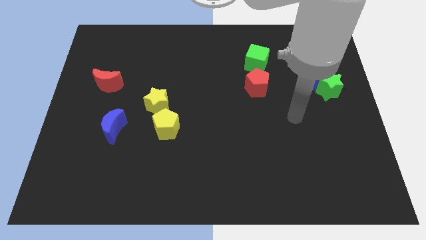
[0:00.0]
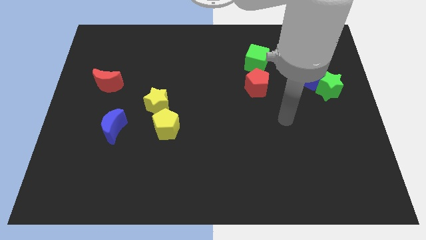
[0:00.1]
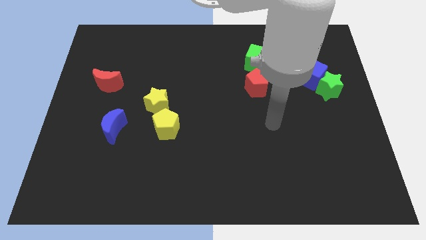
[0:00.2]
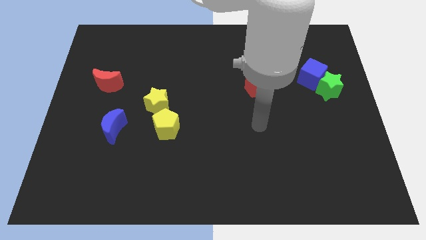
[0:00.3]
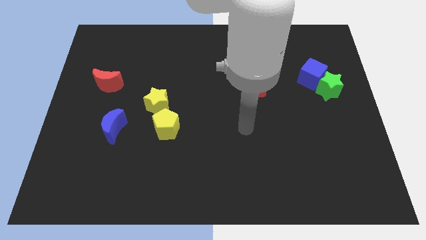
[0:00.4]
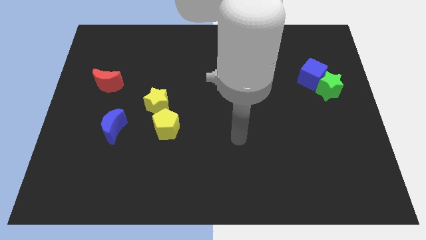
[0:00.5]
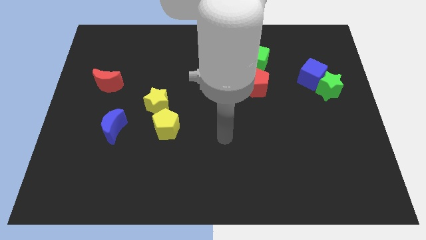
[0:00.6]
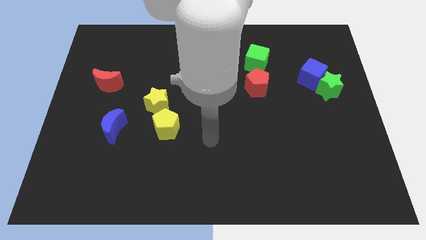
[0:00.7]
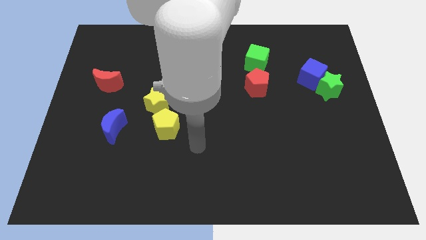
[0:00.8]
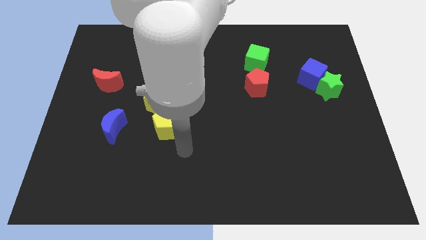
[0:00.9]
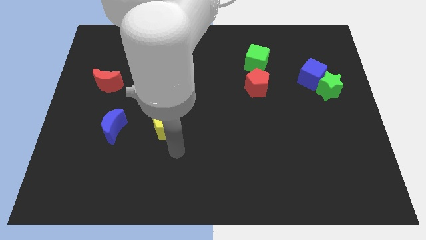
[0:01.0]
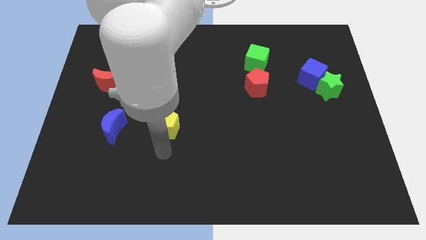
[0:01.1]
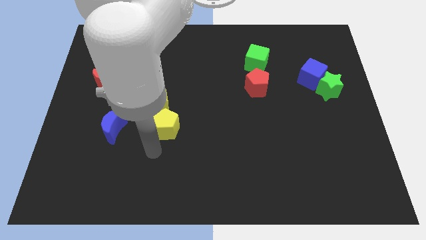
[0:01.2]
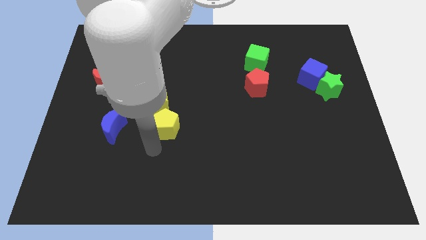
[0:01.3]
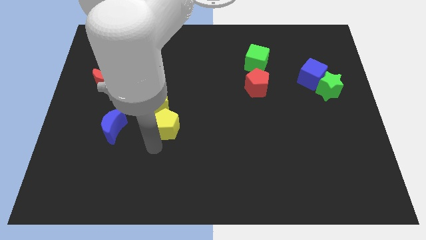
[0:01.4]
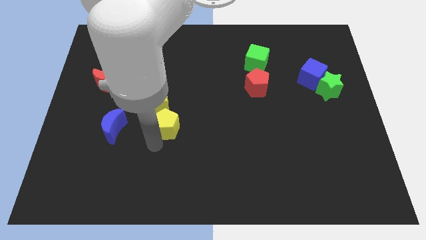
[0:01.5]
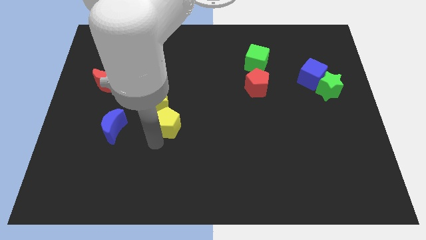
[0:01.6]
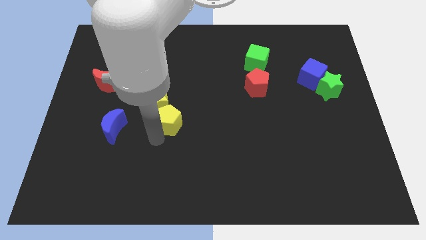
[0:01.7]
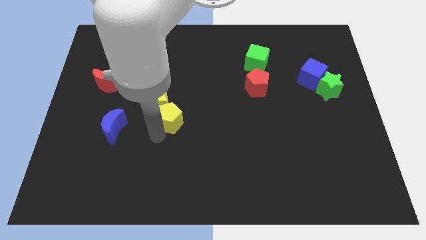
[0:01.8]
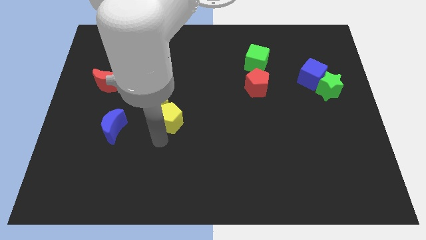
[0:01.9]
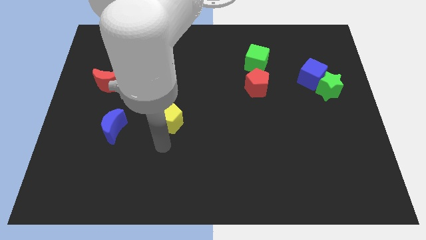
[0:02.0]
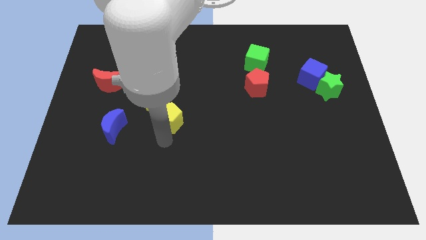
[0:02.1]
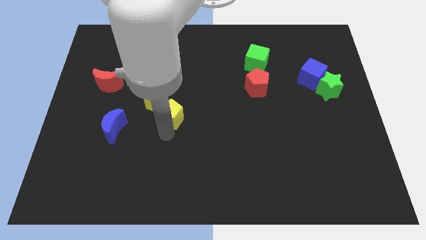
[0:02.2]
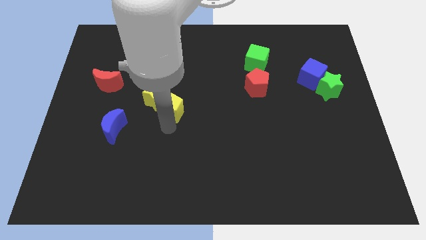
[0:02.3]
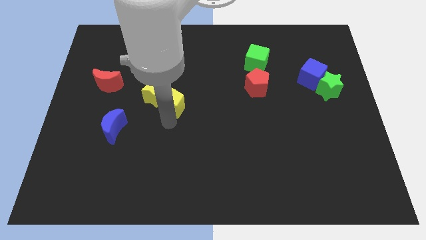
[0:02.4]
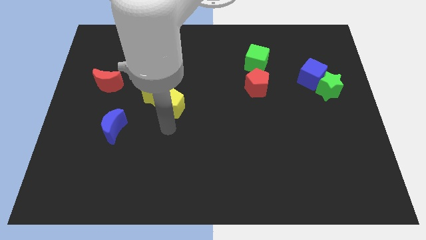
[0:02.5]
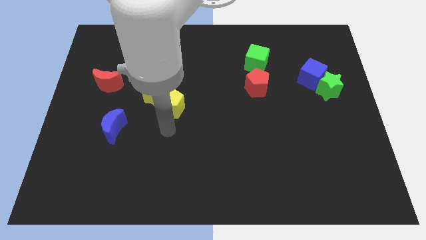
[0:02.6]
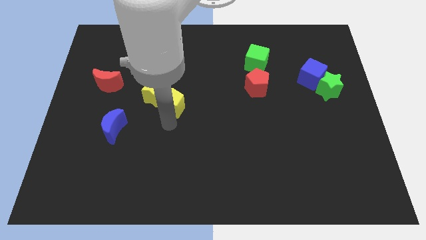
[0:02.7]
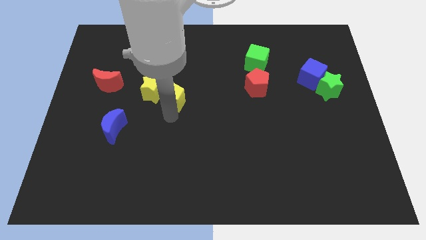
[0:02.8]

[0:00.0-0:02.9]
slightly push the yellow pentagon upwards

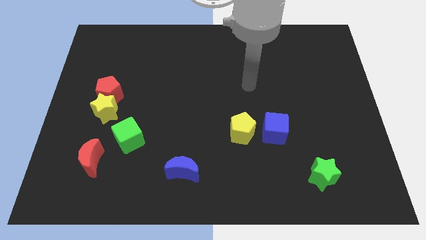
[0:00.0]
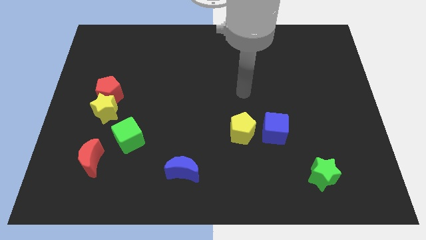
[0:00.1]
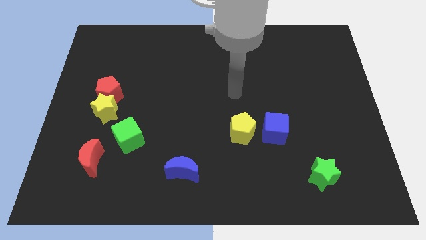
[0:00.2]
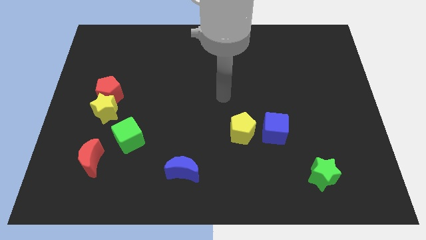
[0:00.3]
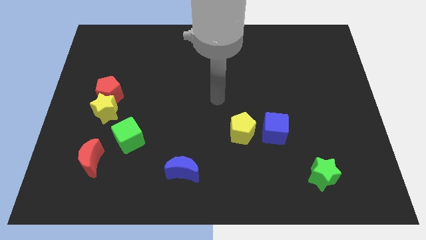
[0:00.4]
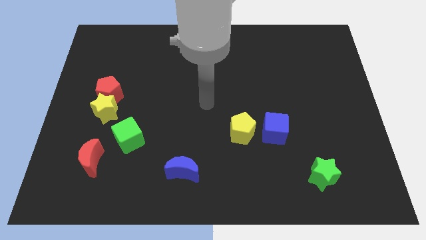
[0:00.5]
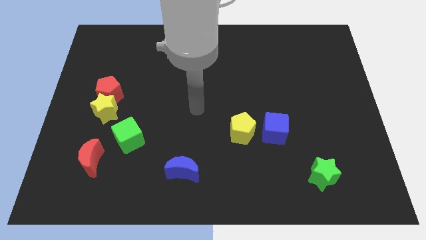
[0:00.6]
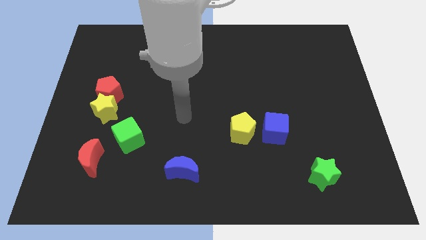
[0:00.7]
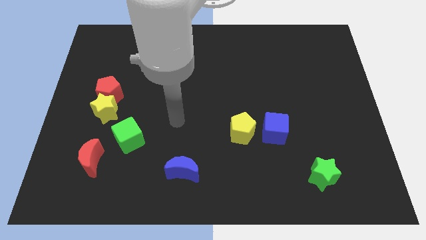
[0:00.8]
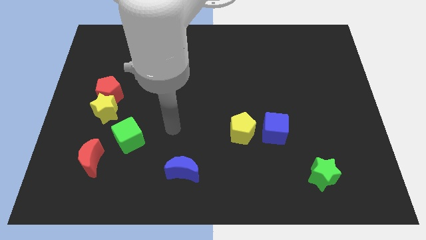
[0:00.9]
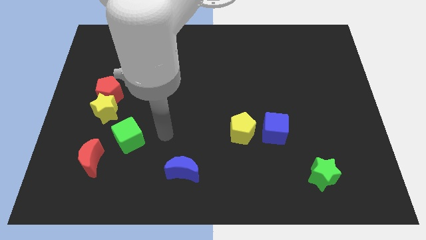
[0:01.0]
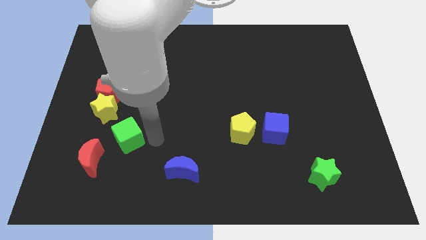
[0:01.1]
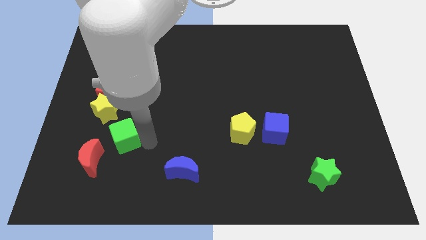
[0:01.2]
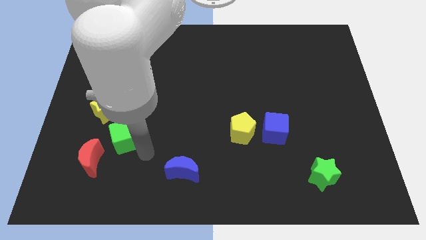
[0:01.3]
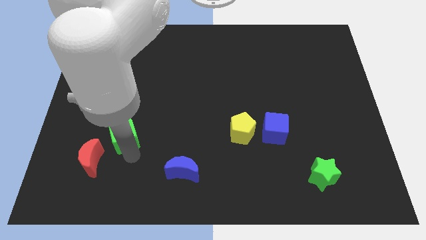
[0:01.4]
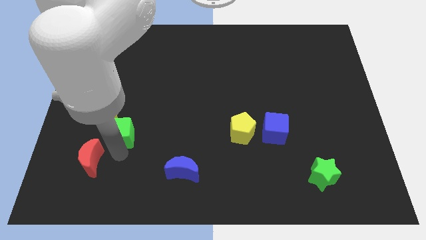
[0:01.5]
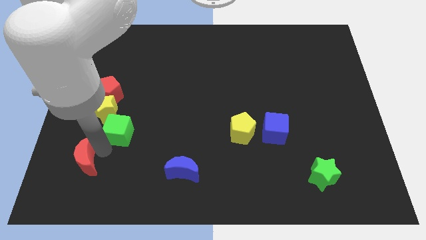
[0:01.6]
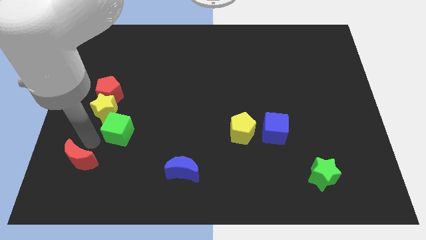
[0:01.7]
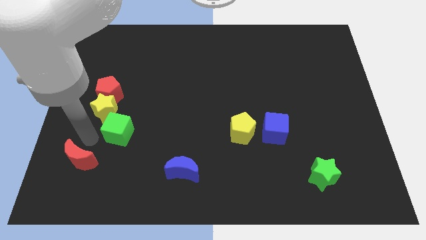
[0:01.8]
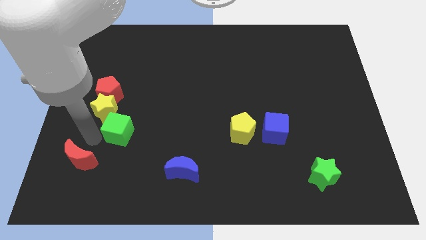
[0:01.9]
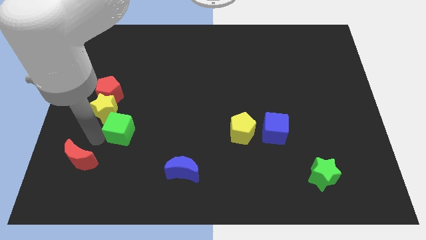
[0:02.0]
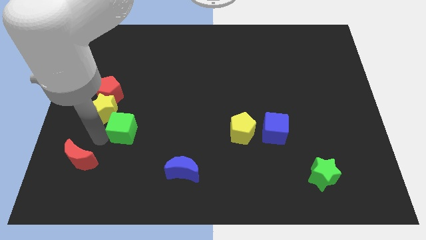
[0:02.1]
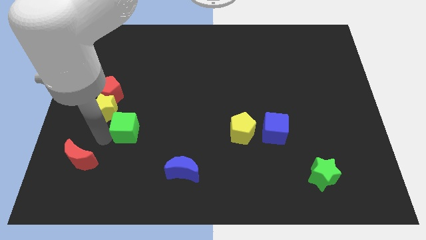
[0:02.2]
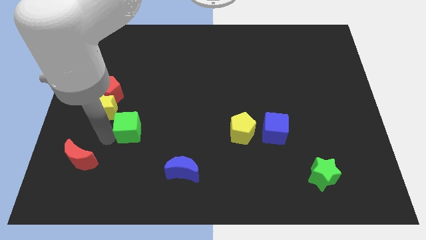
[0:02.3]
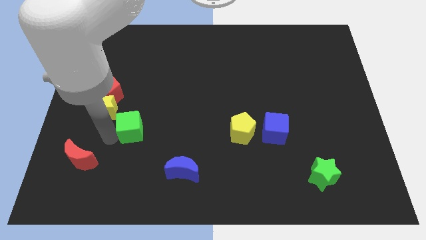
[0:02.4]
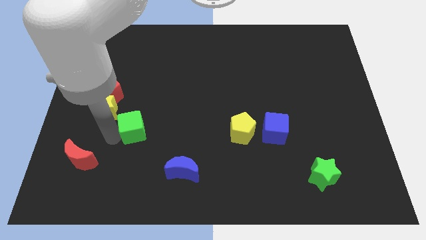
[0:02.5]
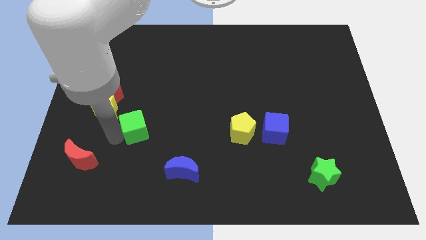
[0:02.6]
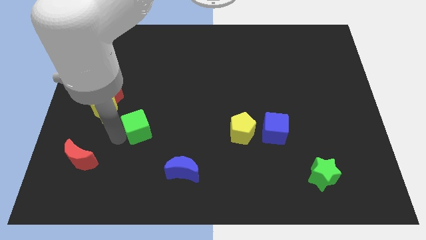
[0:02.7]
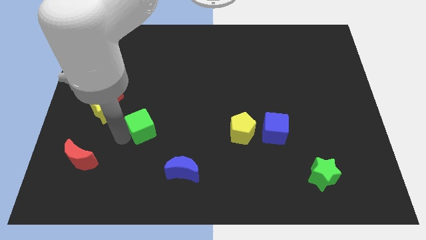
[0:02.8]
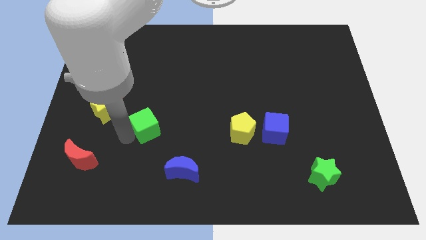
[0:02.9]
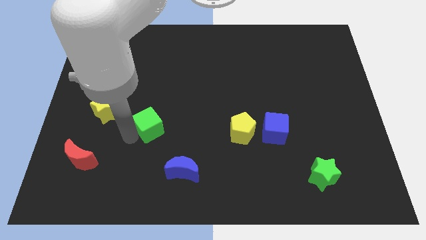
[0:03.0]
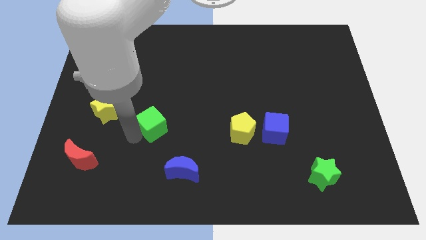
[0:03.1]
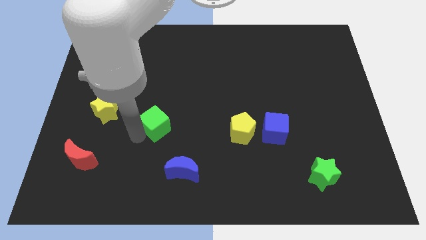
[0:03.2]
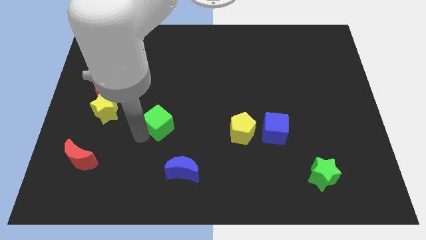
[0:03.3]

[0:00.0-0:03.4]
move the green cube a little bit diagonally up and right

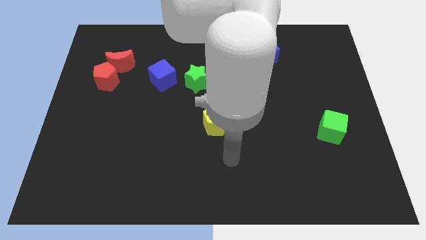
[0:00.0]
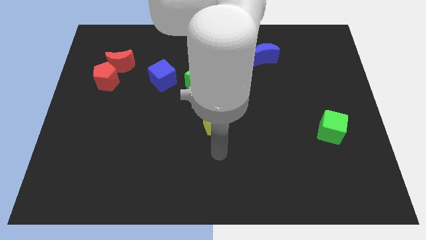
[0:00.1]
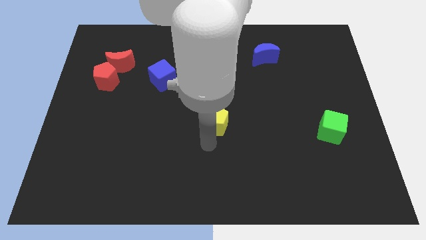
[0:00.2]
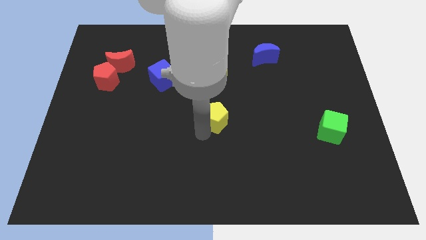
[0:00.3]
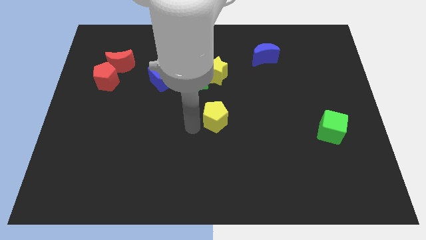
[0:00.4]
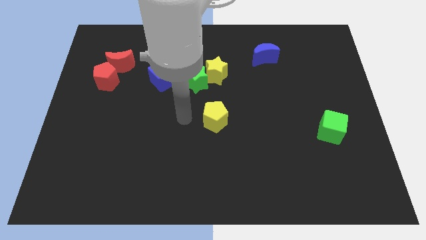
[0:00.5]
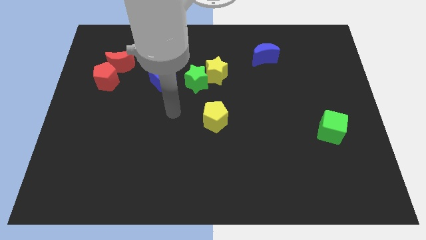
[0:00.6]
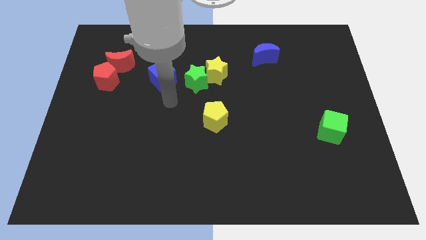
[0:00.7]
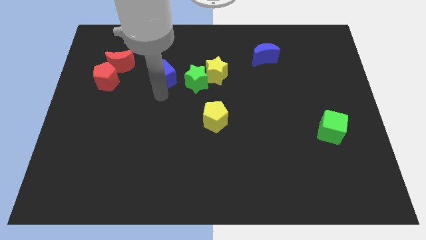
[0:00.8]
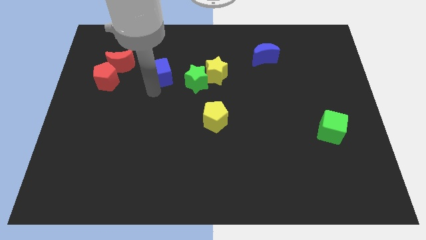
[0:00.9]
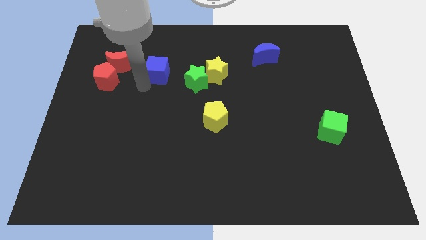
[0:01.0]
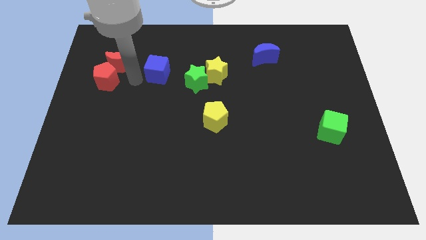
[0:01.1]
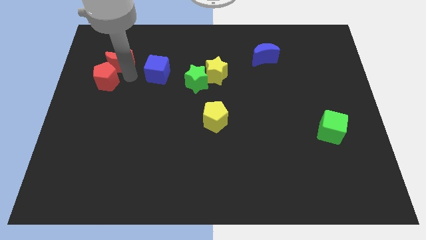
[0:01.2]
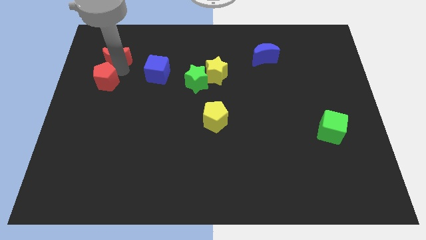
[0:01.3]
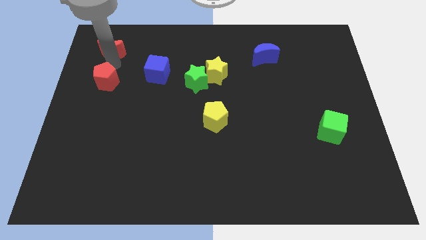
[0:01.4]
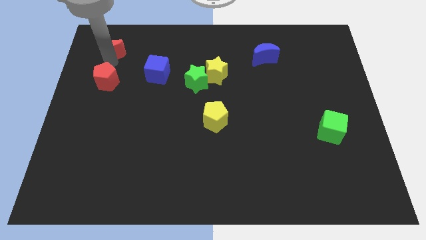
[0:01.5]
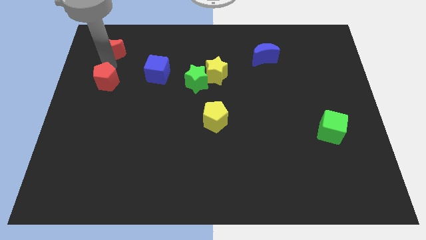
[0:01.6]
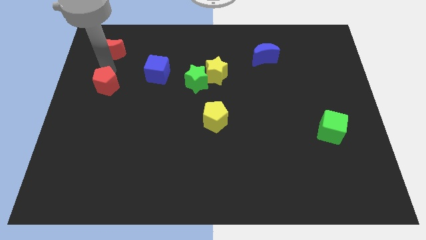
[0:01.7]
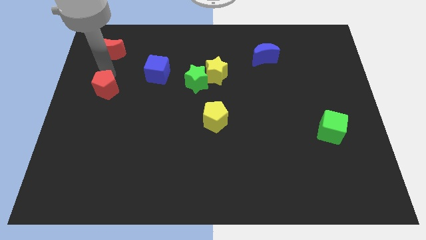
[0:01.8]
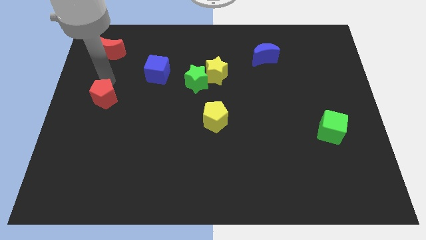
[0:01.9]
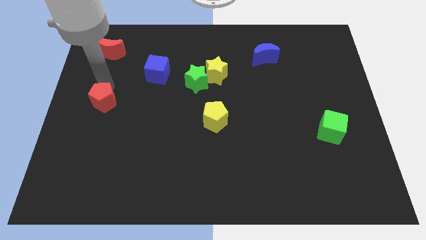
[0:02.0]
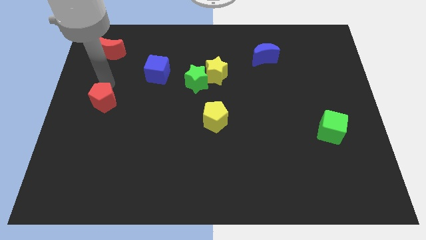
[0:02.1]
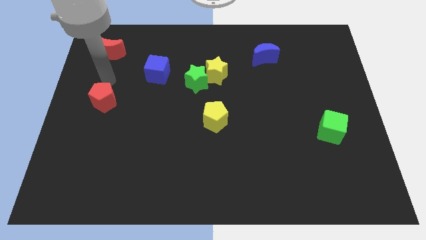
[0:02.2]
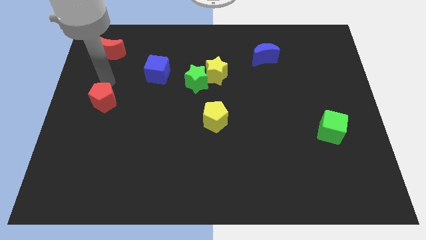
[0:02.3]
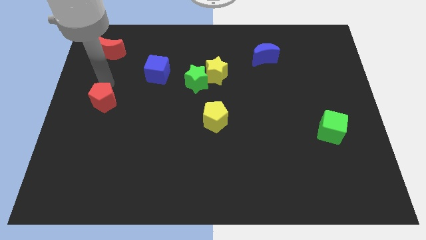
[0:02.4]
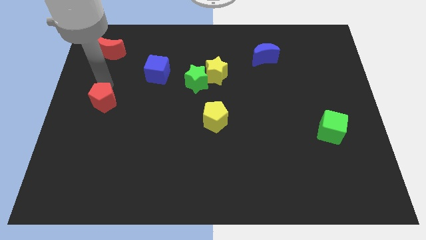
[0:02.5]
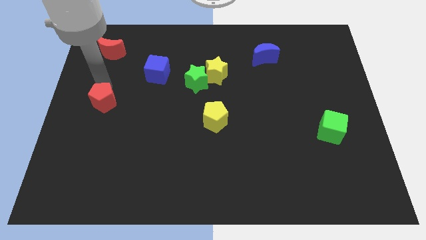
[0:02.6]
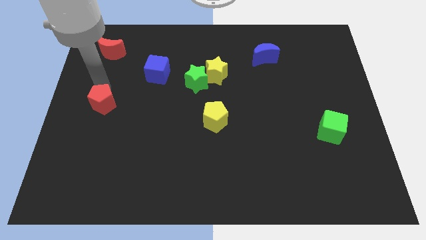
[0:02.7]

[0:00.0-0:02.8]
slightly move the red pentagon down
